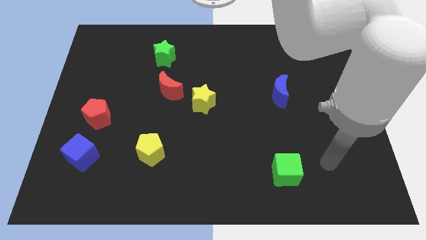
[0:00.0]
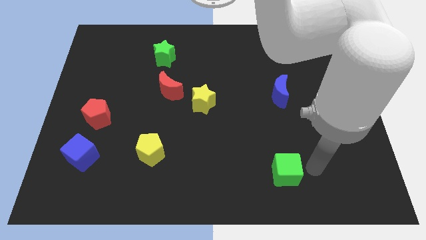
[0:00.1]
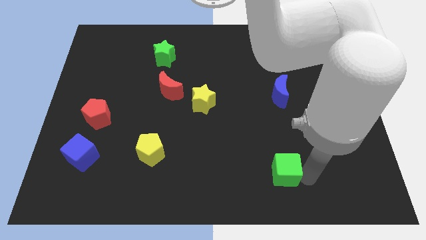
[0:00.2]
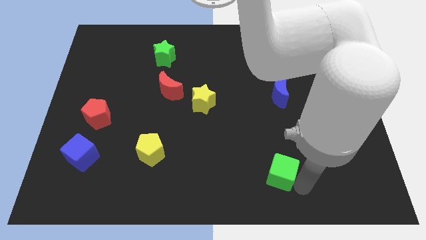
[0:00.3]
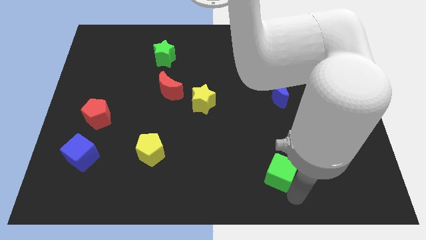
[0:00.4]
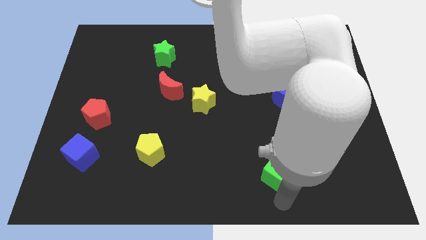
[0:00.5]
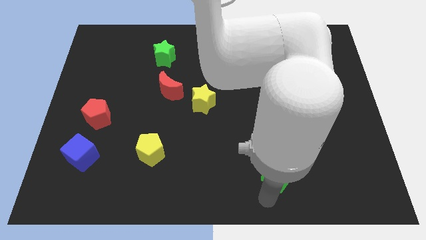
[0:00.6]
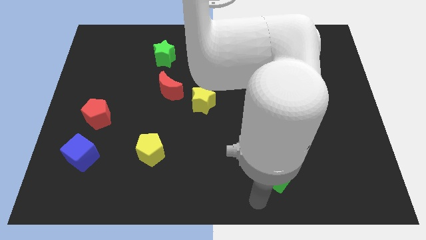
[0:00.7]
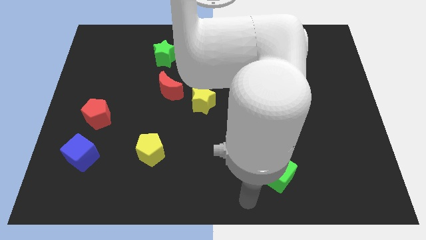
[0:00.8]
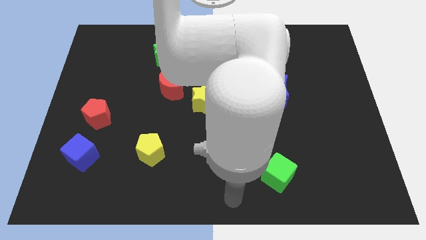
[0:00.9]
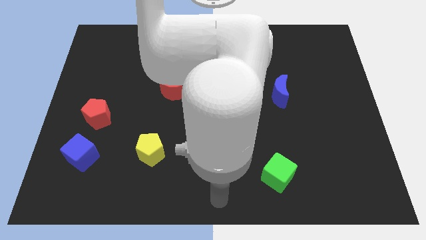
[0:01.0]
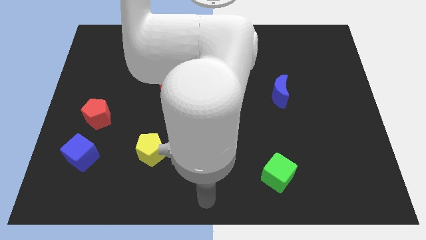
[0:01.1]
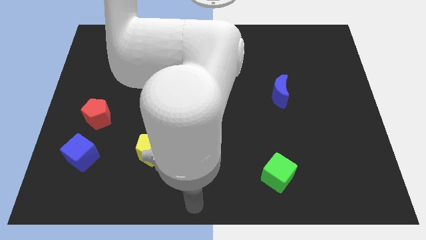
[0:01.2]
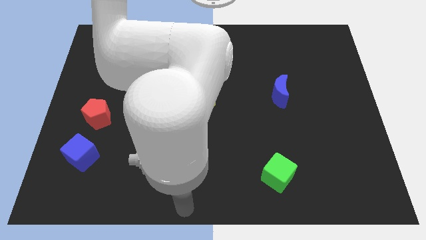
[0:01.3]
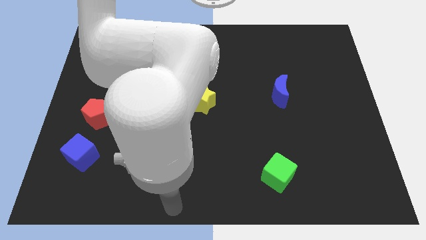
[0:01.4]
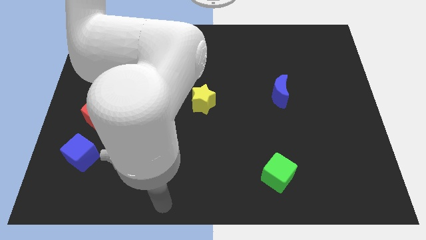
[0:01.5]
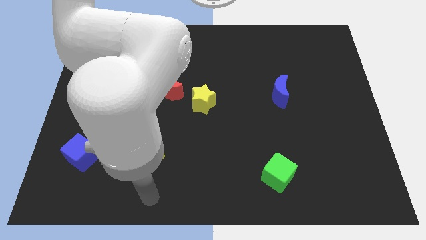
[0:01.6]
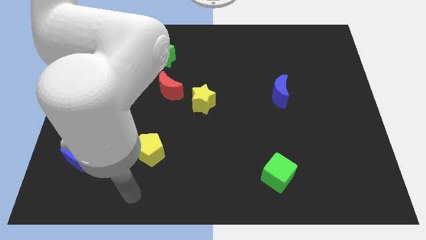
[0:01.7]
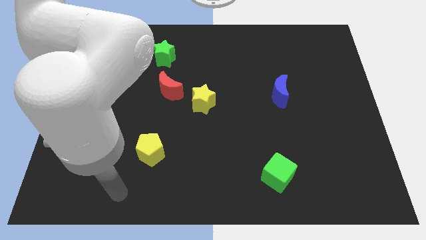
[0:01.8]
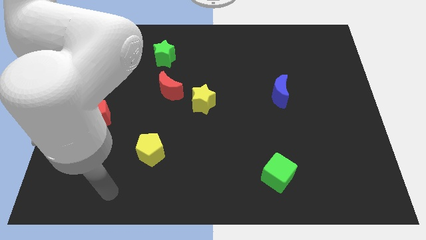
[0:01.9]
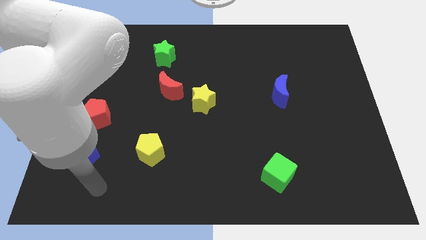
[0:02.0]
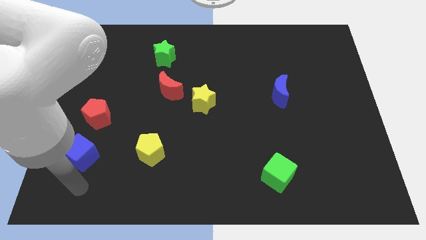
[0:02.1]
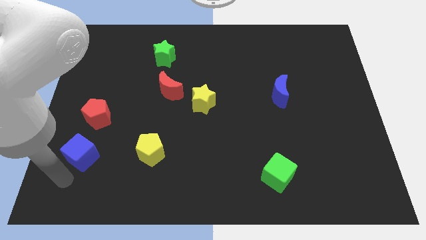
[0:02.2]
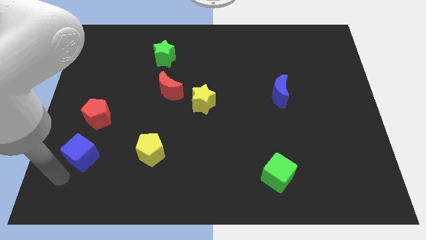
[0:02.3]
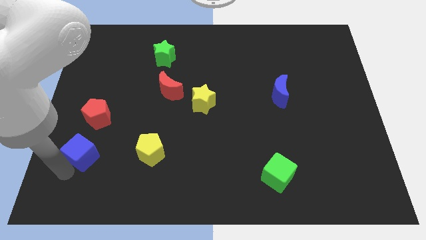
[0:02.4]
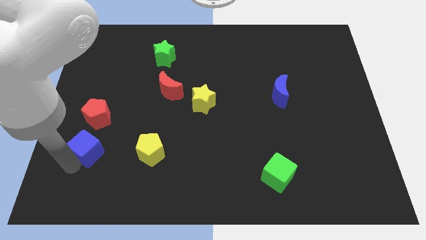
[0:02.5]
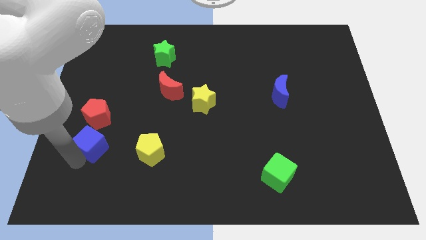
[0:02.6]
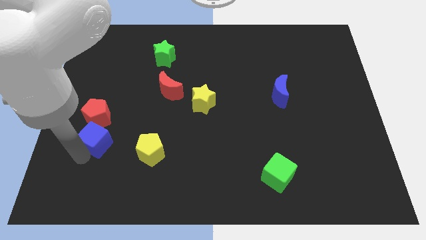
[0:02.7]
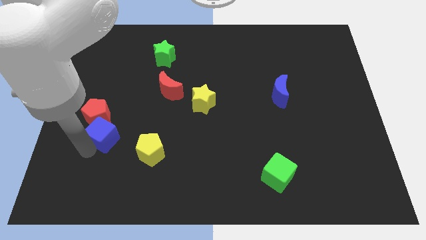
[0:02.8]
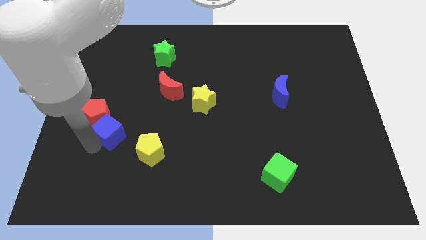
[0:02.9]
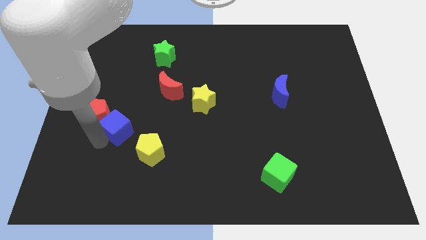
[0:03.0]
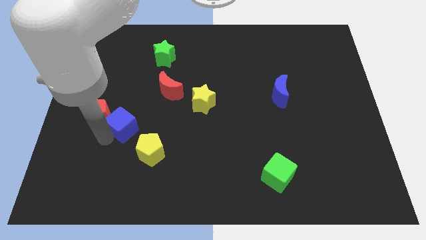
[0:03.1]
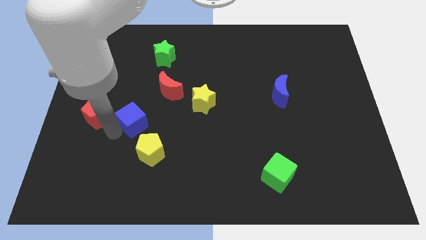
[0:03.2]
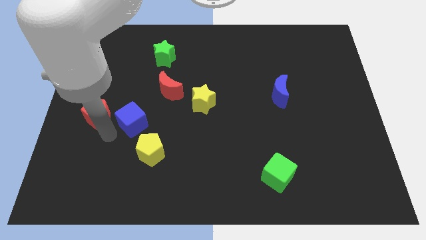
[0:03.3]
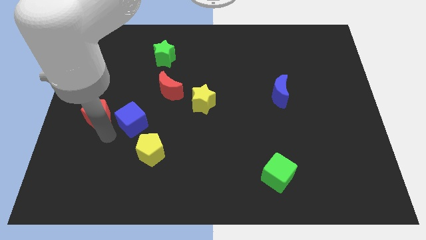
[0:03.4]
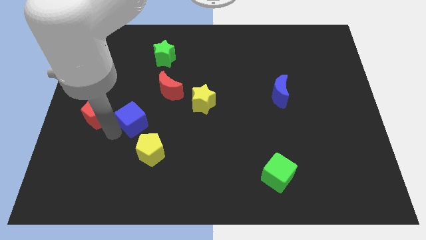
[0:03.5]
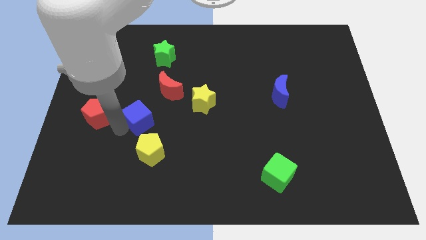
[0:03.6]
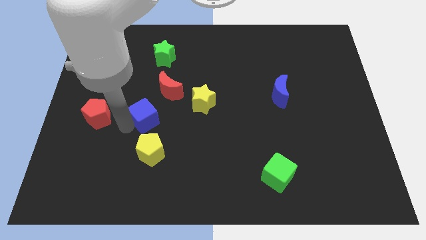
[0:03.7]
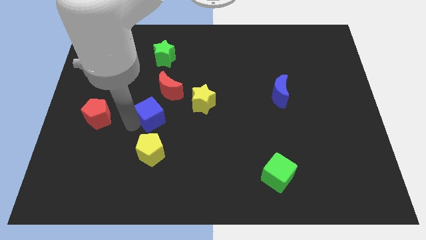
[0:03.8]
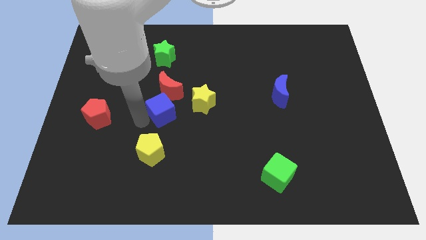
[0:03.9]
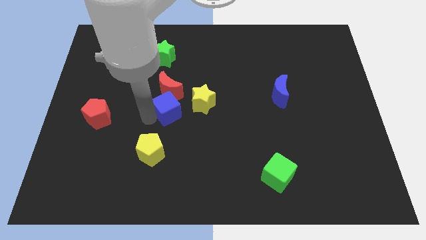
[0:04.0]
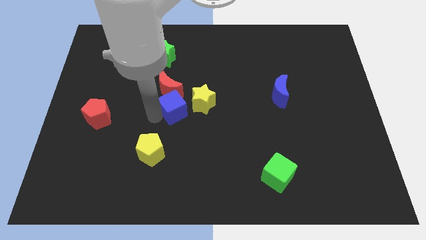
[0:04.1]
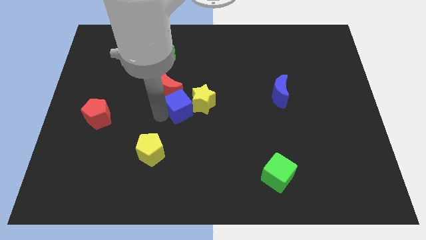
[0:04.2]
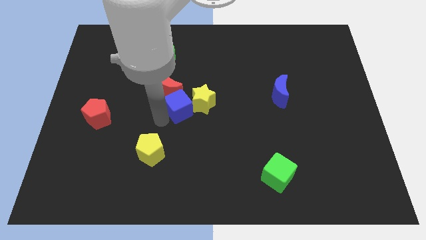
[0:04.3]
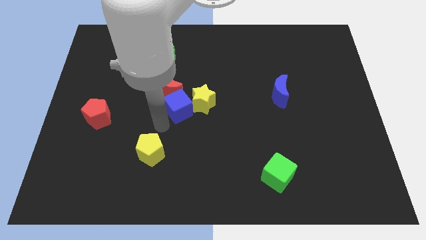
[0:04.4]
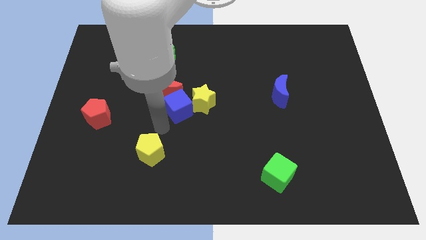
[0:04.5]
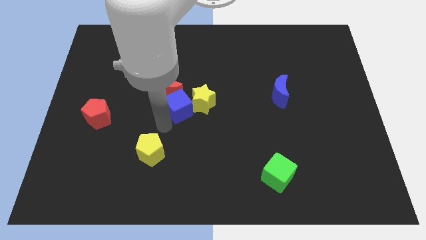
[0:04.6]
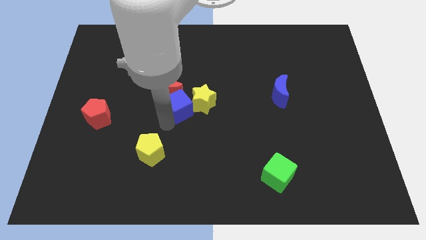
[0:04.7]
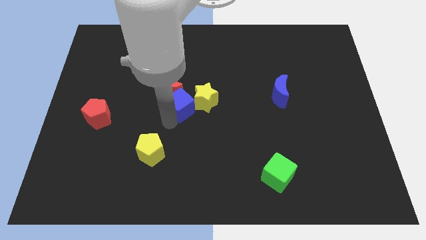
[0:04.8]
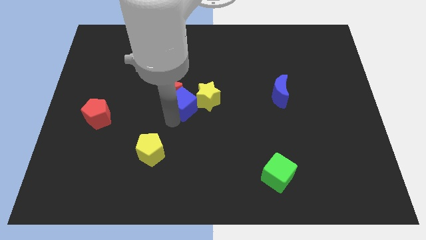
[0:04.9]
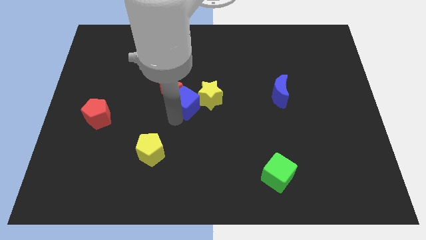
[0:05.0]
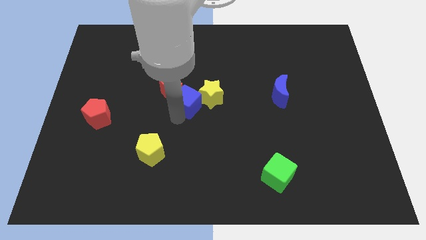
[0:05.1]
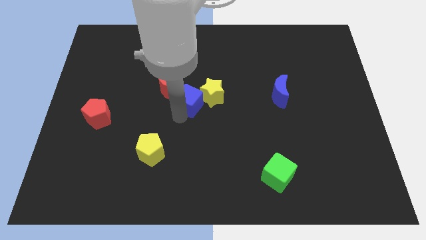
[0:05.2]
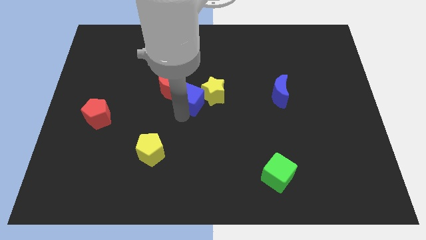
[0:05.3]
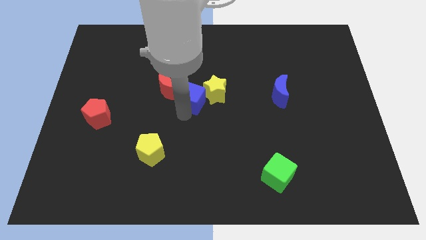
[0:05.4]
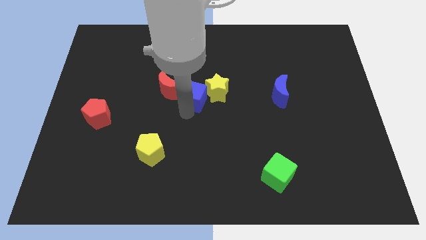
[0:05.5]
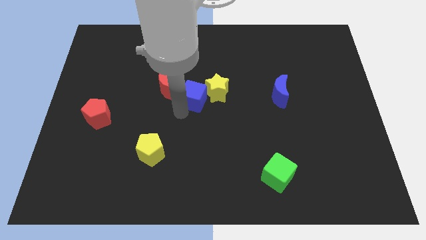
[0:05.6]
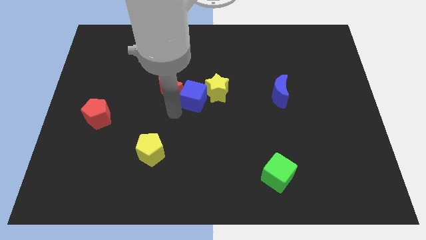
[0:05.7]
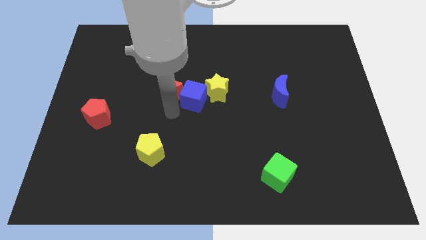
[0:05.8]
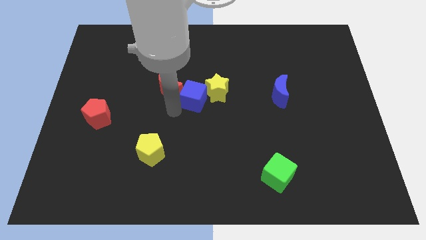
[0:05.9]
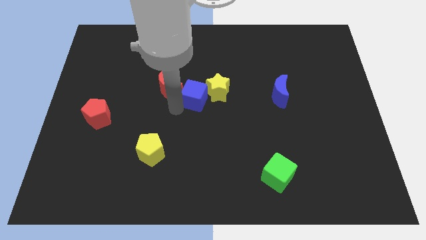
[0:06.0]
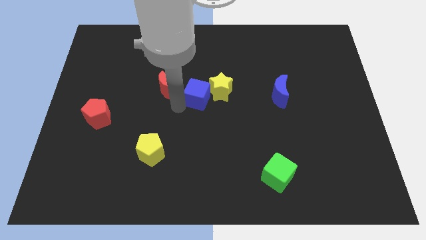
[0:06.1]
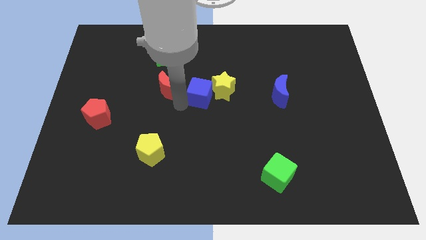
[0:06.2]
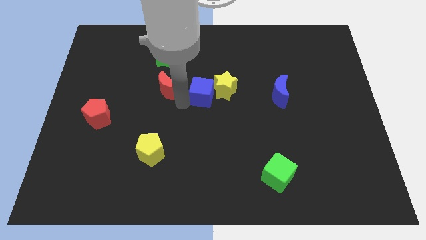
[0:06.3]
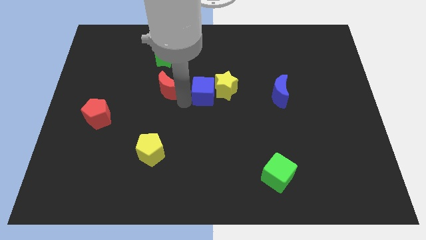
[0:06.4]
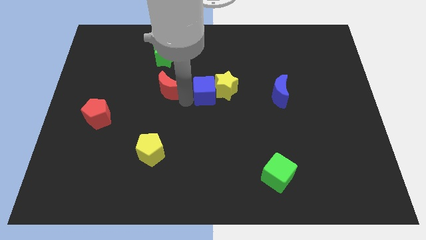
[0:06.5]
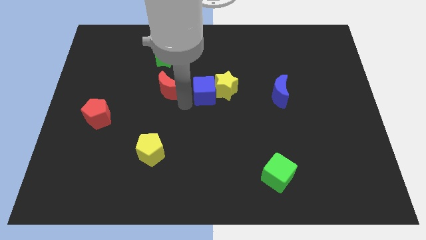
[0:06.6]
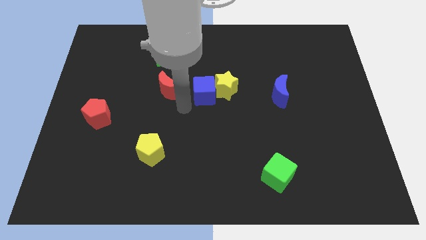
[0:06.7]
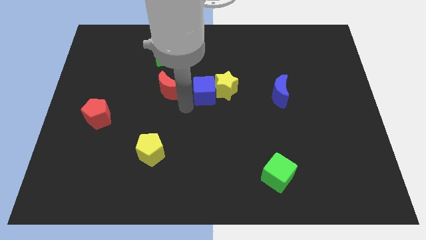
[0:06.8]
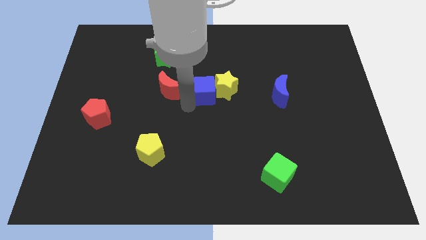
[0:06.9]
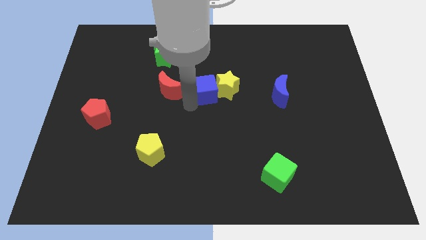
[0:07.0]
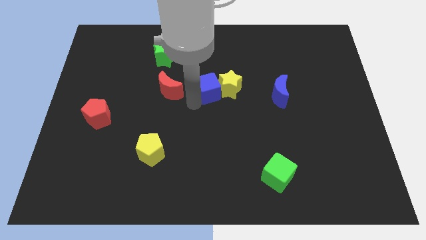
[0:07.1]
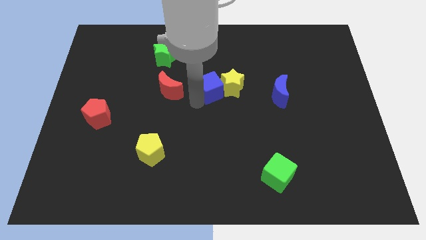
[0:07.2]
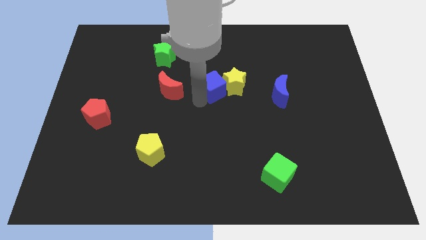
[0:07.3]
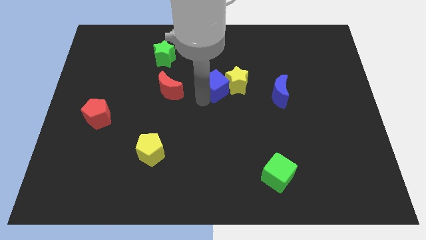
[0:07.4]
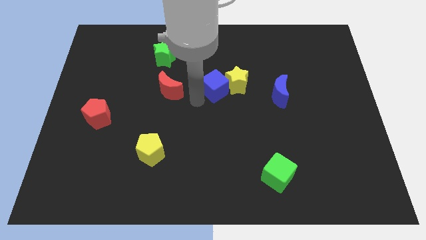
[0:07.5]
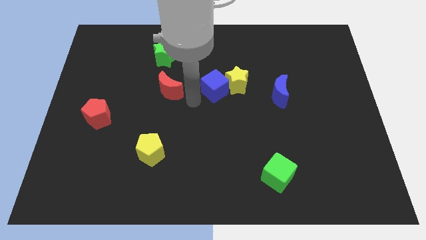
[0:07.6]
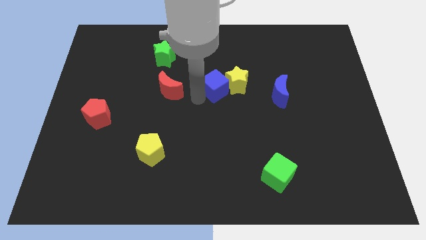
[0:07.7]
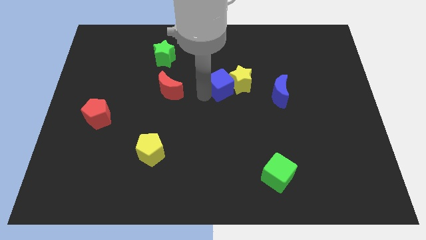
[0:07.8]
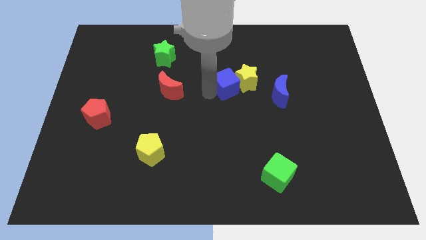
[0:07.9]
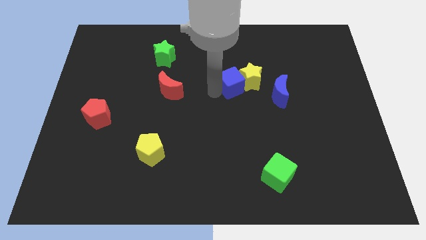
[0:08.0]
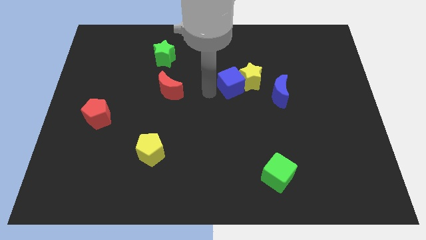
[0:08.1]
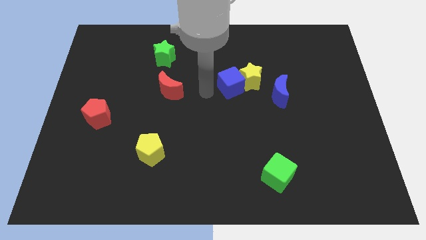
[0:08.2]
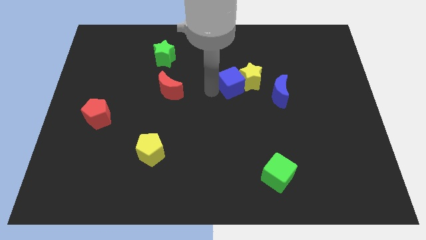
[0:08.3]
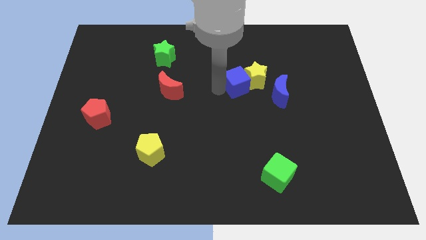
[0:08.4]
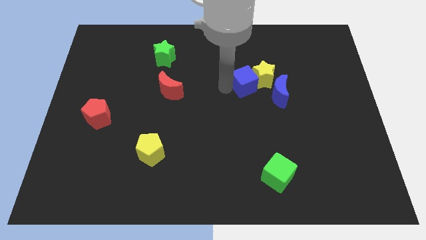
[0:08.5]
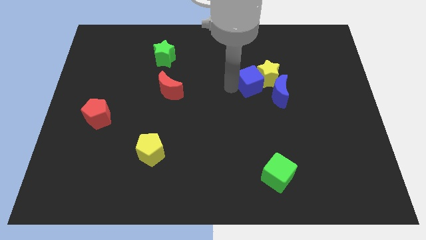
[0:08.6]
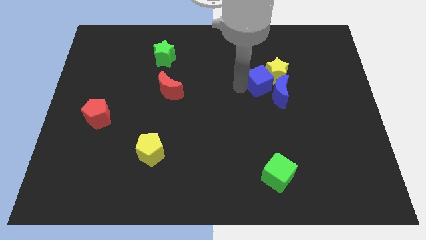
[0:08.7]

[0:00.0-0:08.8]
put the blue cube to the top side of the blue moon

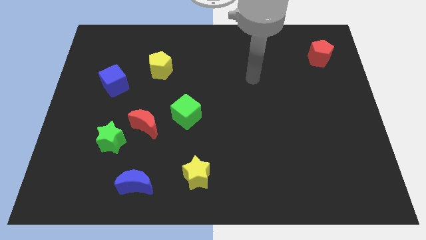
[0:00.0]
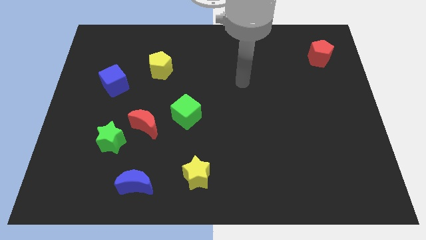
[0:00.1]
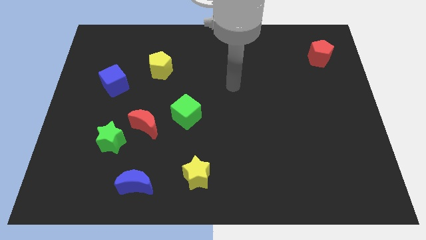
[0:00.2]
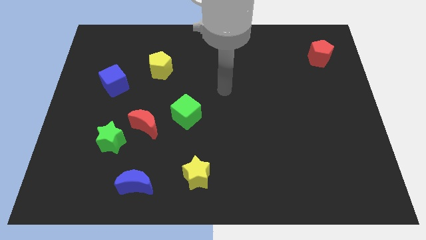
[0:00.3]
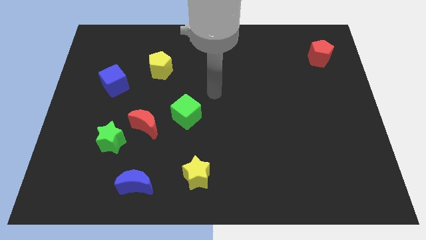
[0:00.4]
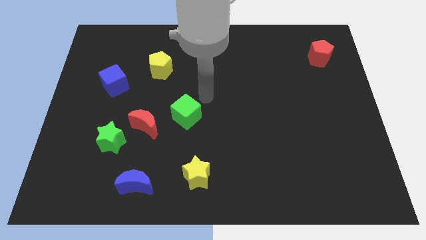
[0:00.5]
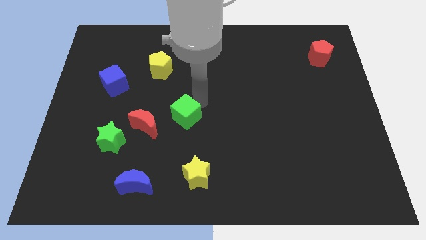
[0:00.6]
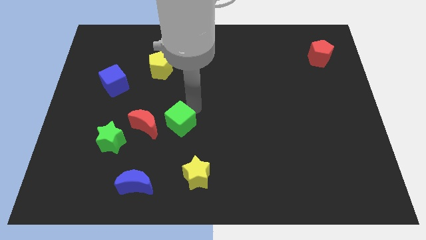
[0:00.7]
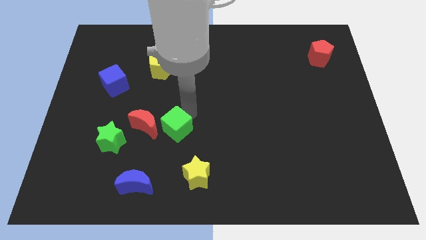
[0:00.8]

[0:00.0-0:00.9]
move the green cube to the right side of the green star
